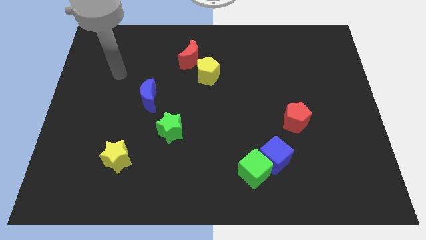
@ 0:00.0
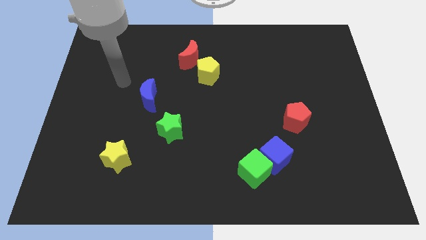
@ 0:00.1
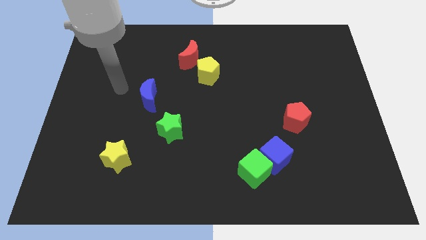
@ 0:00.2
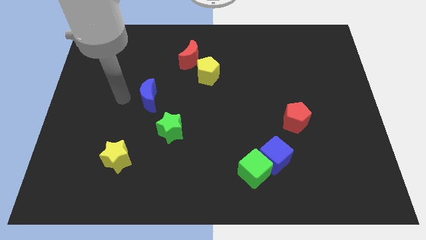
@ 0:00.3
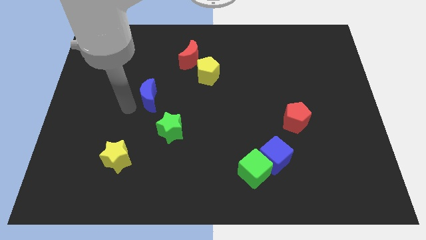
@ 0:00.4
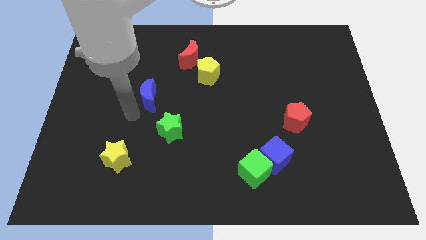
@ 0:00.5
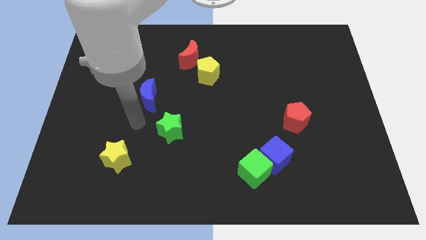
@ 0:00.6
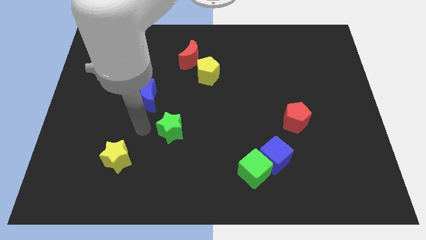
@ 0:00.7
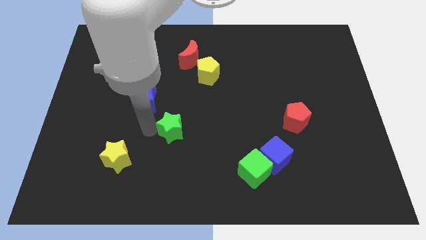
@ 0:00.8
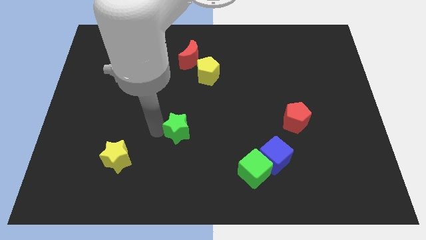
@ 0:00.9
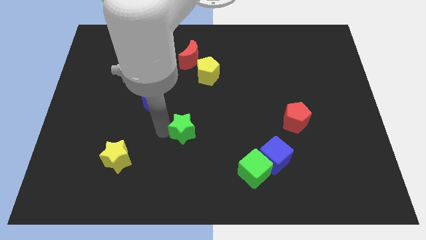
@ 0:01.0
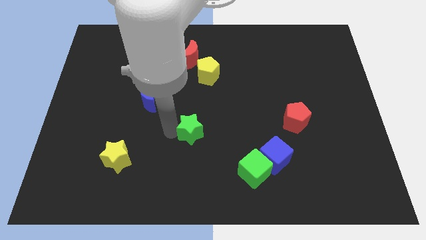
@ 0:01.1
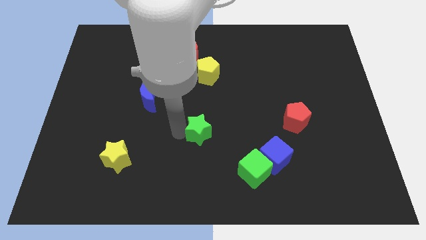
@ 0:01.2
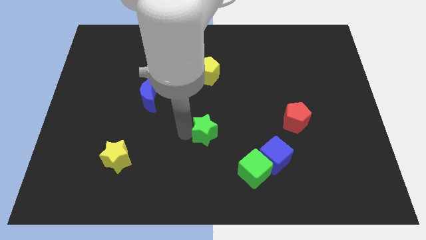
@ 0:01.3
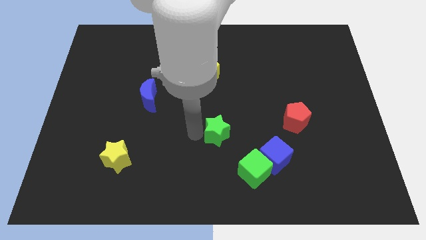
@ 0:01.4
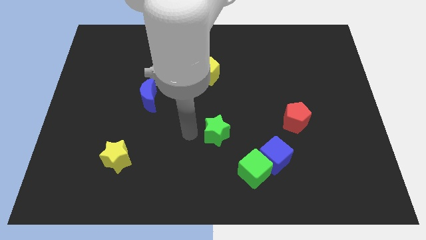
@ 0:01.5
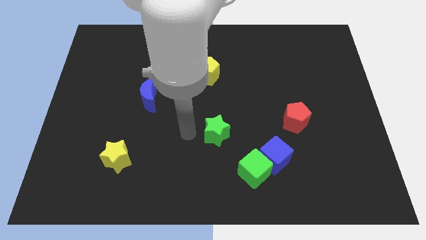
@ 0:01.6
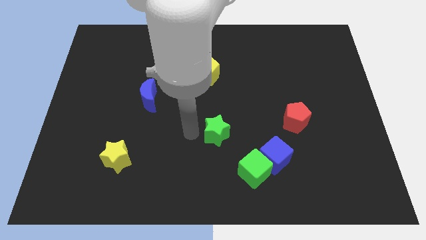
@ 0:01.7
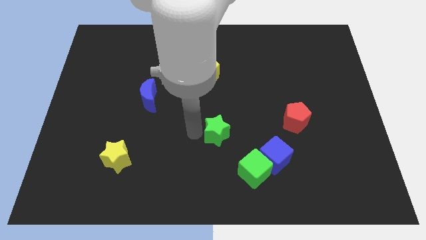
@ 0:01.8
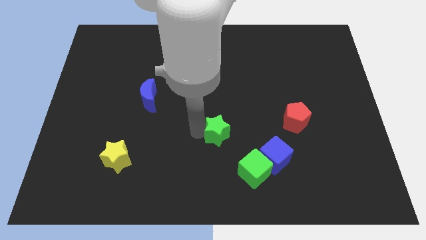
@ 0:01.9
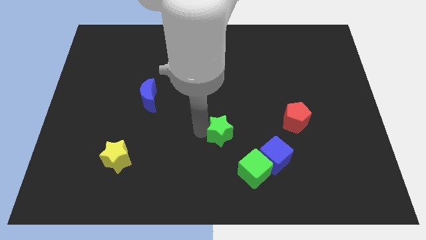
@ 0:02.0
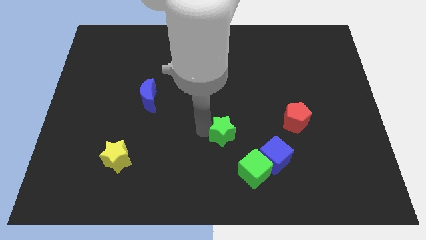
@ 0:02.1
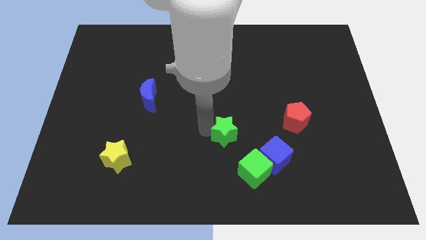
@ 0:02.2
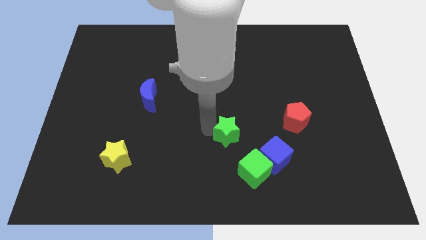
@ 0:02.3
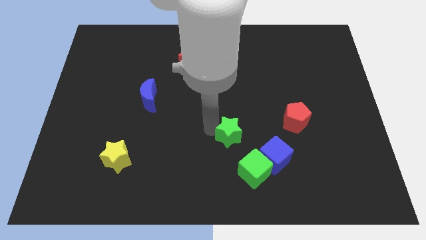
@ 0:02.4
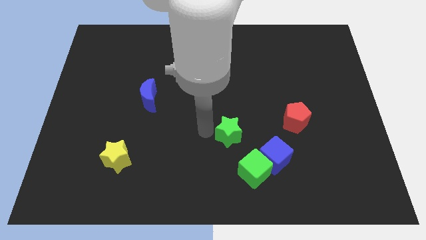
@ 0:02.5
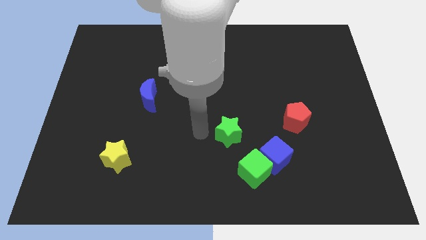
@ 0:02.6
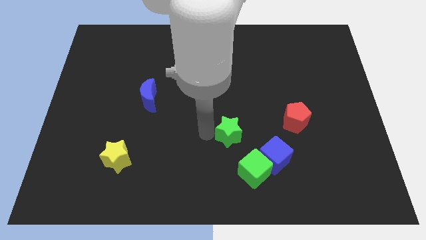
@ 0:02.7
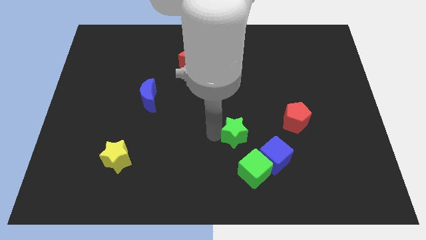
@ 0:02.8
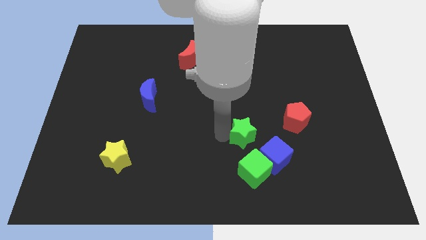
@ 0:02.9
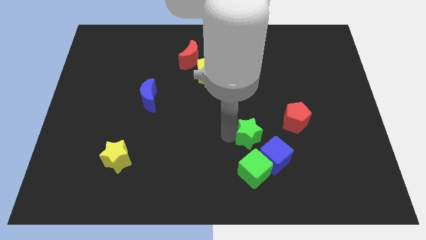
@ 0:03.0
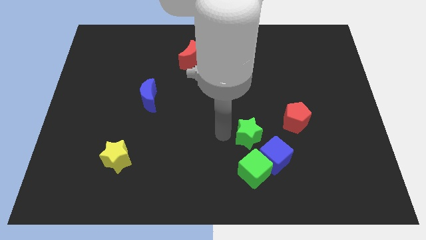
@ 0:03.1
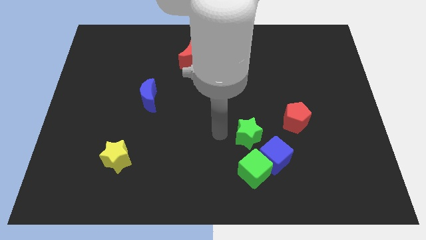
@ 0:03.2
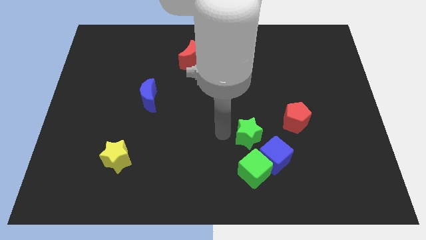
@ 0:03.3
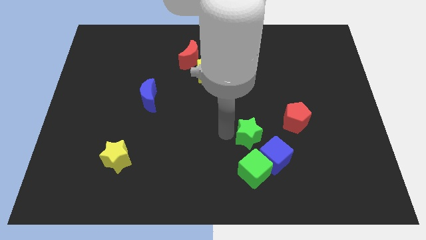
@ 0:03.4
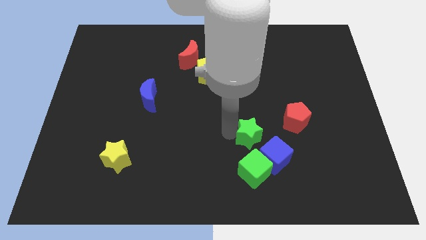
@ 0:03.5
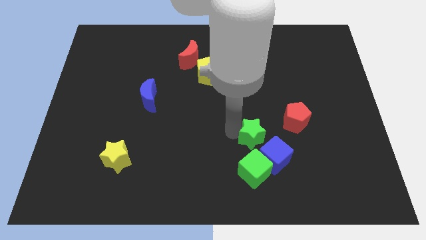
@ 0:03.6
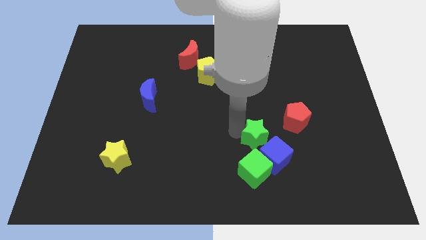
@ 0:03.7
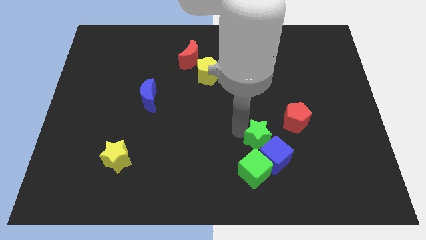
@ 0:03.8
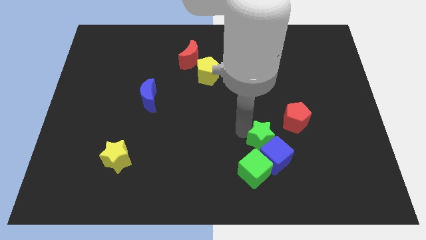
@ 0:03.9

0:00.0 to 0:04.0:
slide the green star to the right

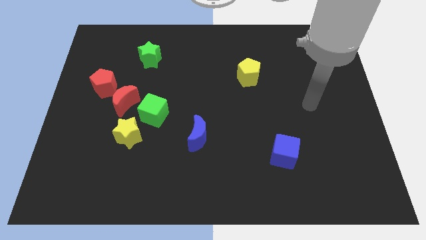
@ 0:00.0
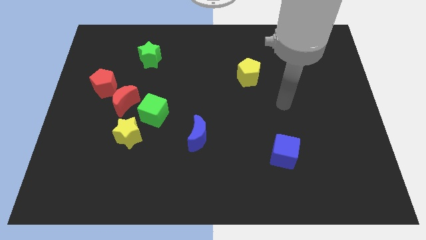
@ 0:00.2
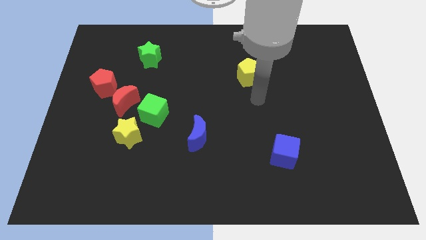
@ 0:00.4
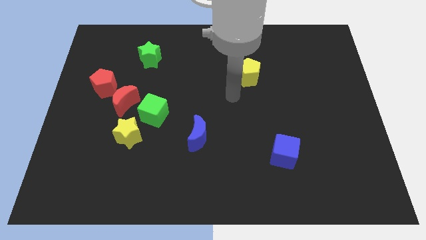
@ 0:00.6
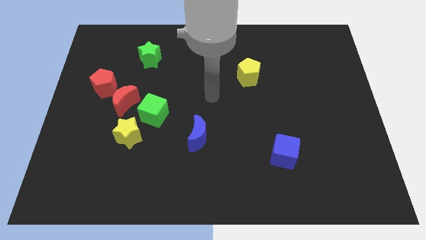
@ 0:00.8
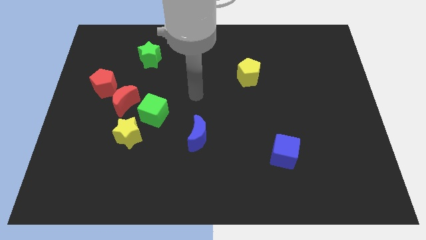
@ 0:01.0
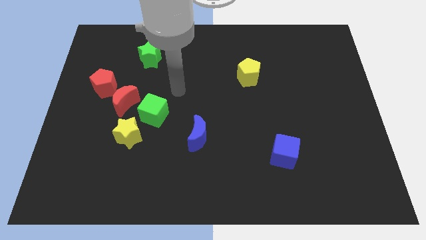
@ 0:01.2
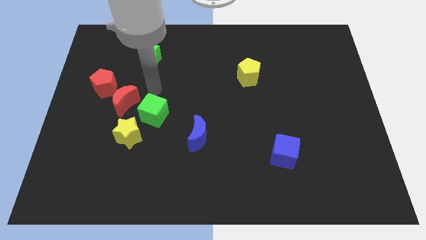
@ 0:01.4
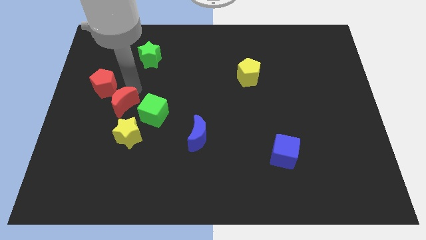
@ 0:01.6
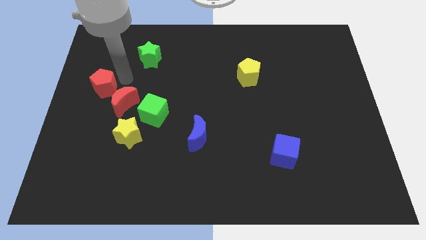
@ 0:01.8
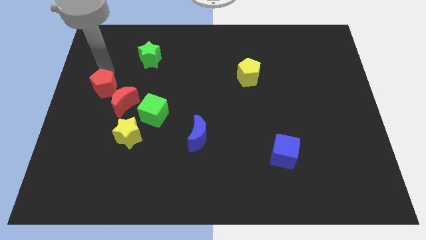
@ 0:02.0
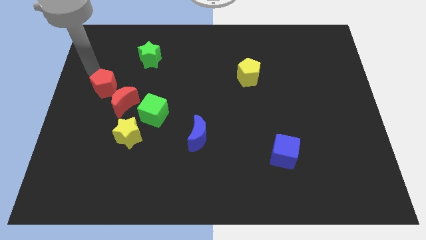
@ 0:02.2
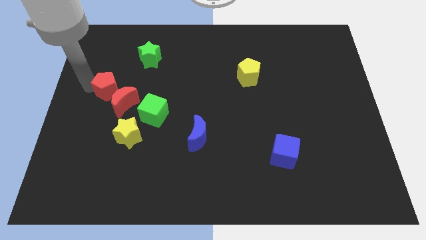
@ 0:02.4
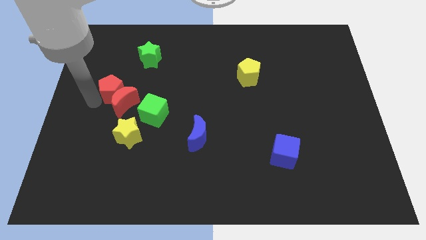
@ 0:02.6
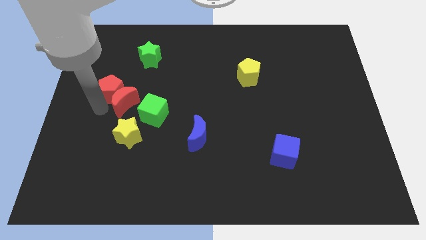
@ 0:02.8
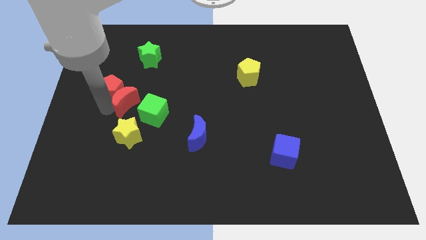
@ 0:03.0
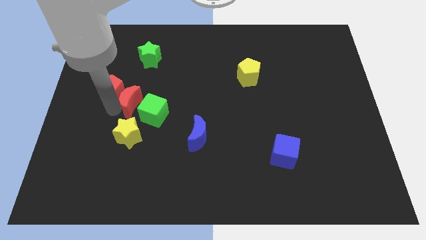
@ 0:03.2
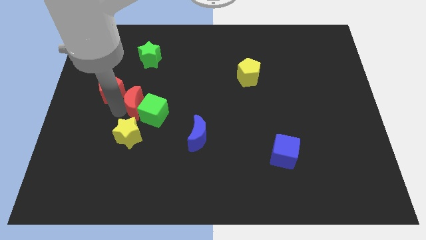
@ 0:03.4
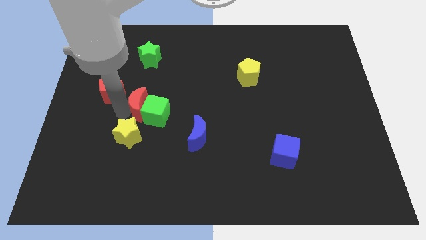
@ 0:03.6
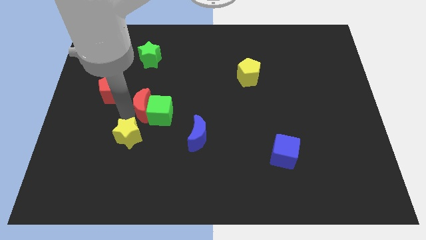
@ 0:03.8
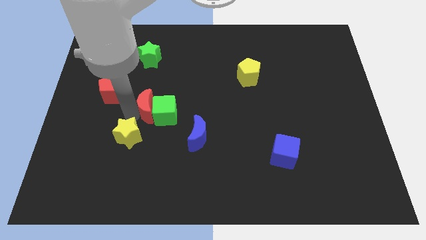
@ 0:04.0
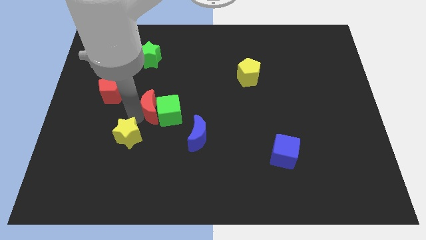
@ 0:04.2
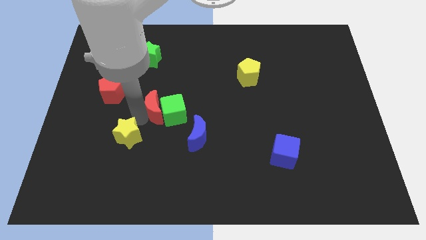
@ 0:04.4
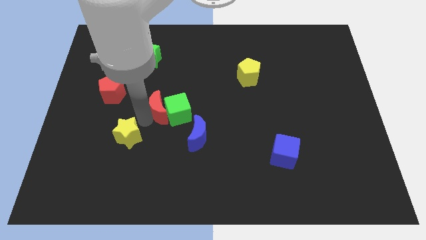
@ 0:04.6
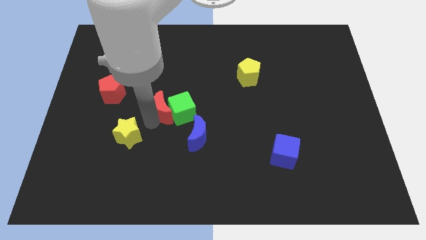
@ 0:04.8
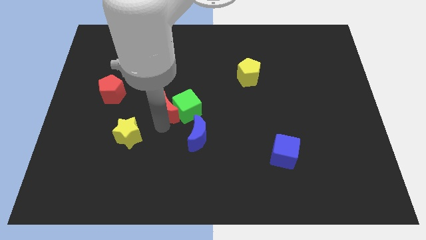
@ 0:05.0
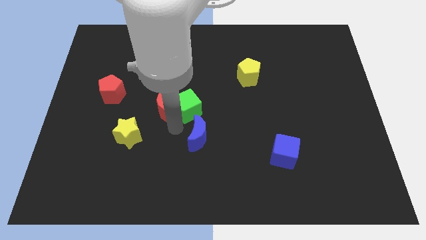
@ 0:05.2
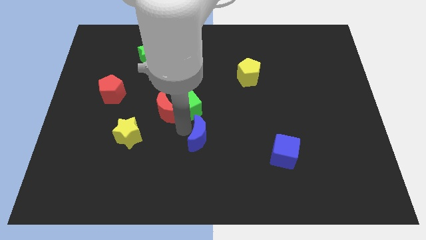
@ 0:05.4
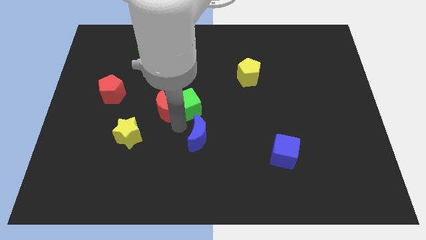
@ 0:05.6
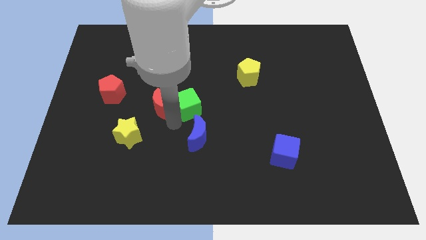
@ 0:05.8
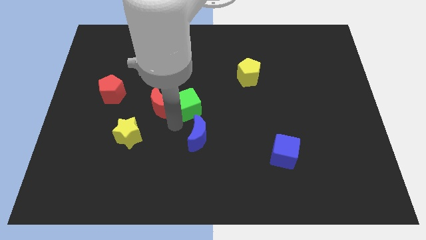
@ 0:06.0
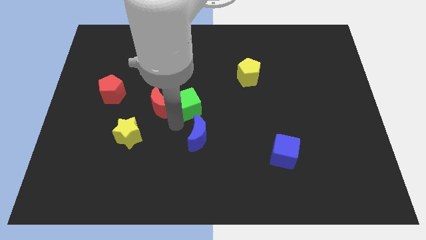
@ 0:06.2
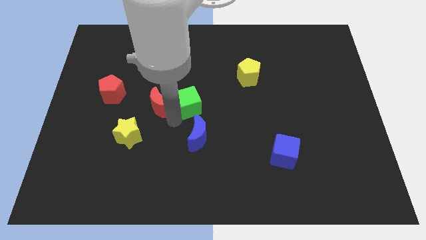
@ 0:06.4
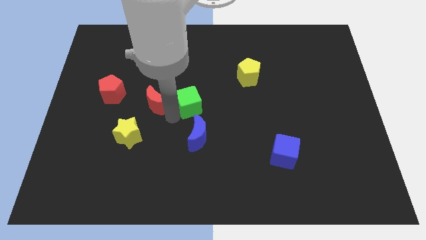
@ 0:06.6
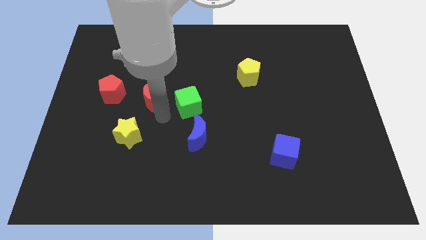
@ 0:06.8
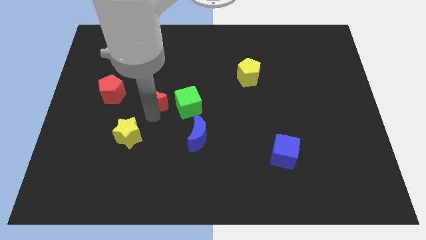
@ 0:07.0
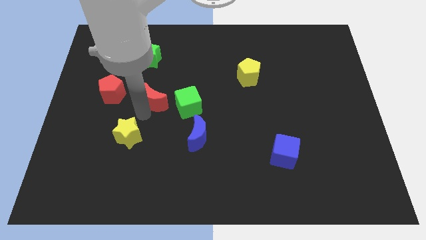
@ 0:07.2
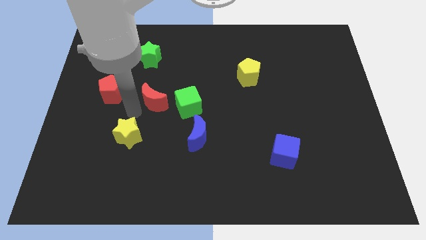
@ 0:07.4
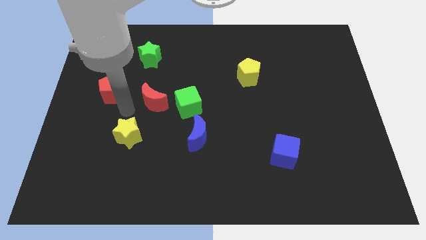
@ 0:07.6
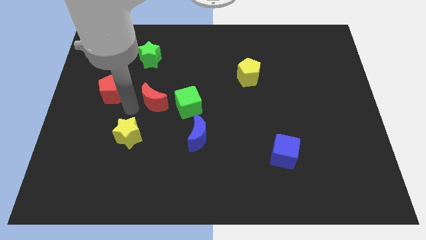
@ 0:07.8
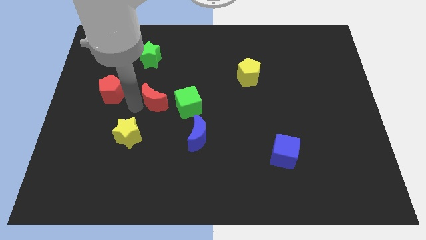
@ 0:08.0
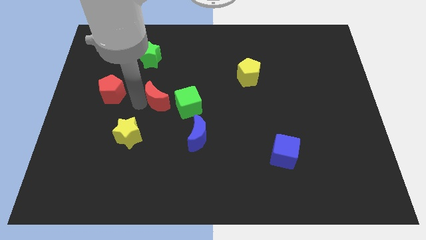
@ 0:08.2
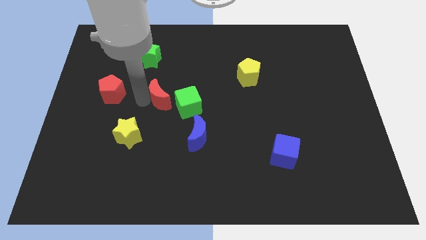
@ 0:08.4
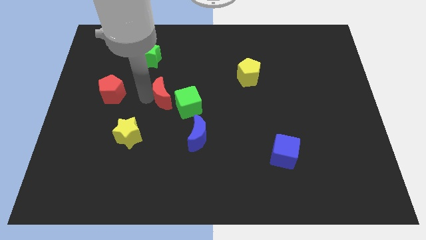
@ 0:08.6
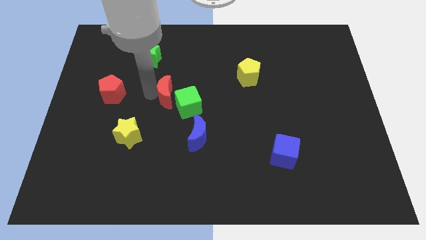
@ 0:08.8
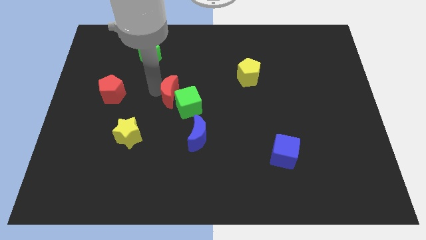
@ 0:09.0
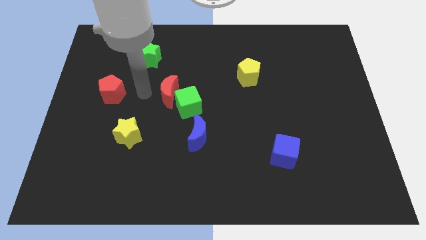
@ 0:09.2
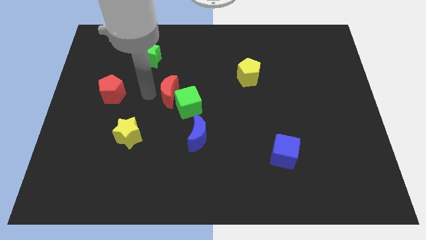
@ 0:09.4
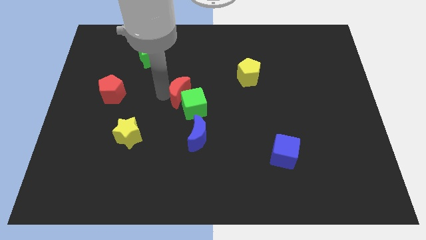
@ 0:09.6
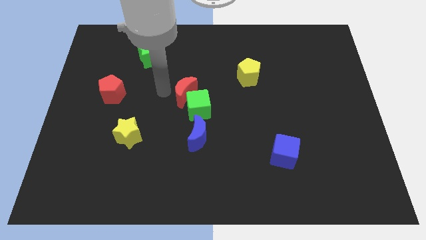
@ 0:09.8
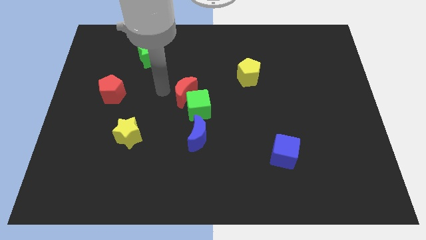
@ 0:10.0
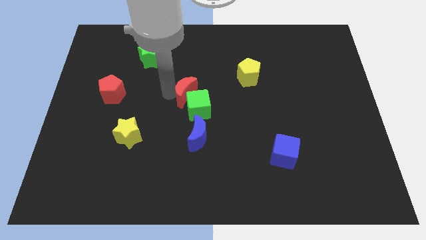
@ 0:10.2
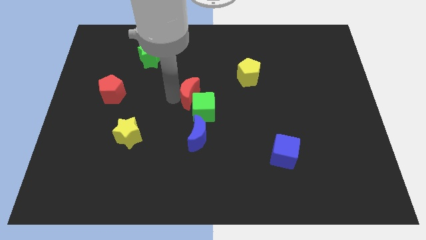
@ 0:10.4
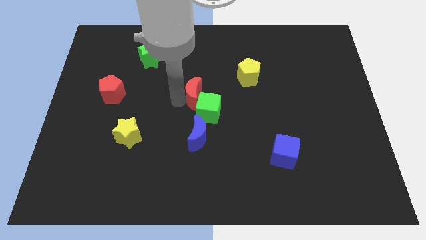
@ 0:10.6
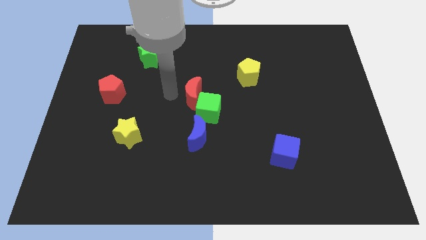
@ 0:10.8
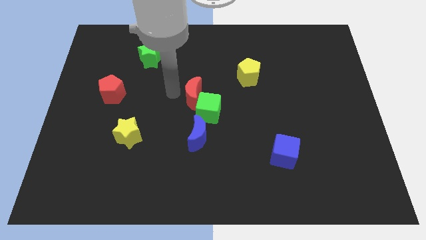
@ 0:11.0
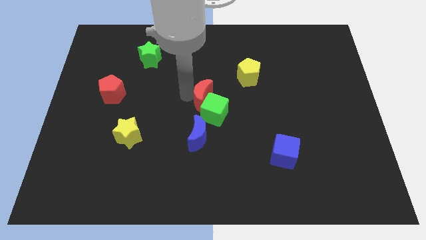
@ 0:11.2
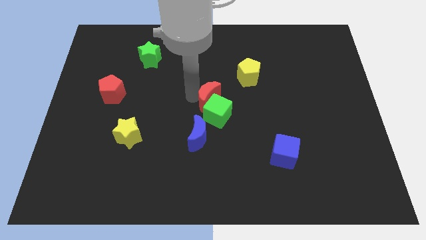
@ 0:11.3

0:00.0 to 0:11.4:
push the red moon to the right
